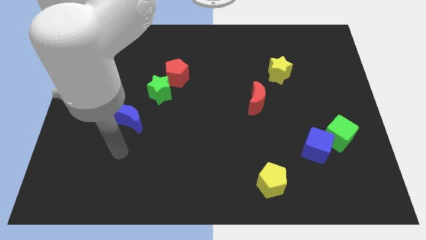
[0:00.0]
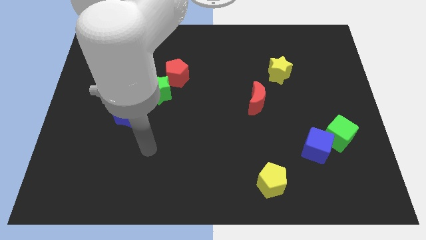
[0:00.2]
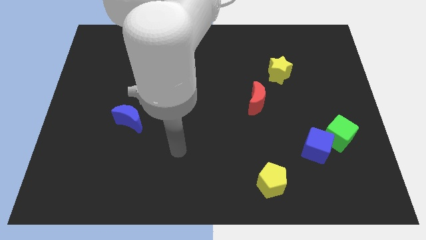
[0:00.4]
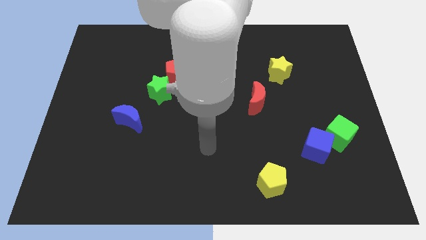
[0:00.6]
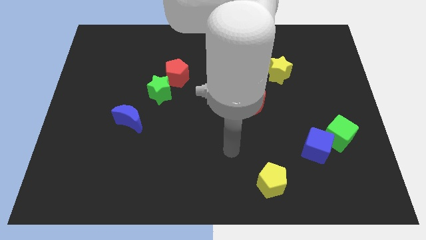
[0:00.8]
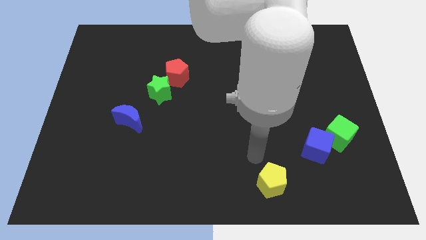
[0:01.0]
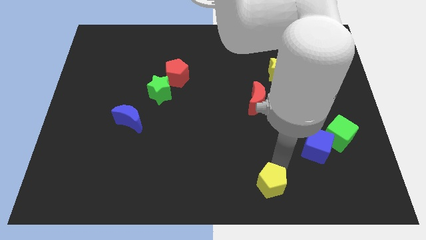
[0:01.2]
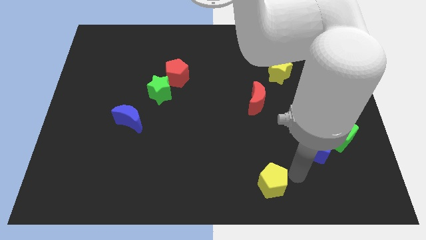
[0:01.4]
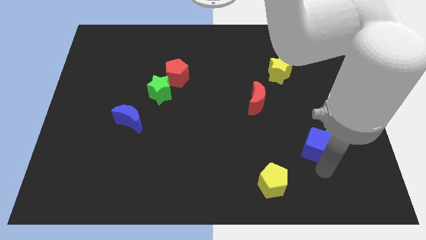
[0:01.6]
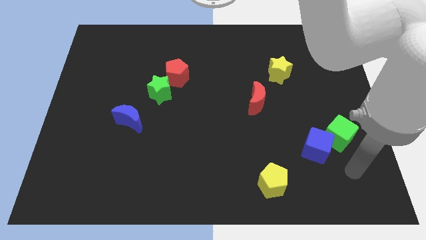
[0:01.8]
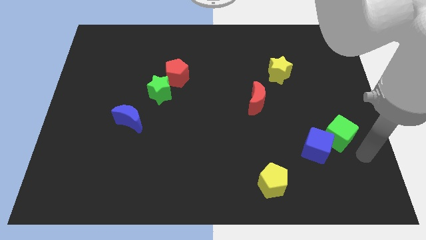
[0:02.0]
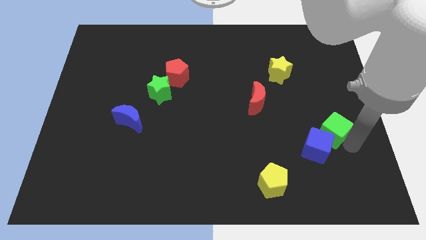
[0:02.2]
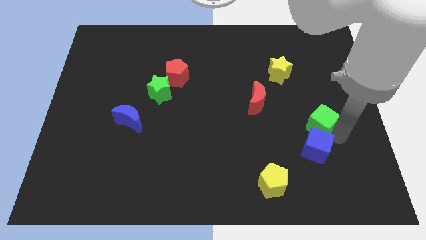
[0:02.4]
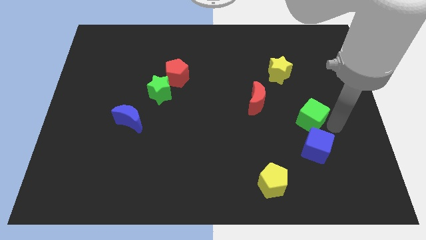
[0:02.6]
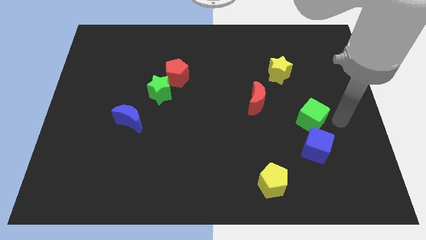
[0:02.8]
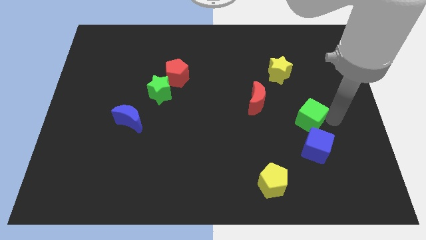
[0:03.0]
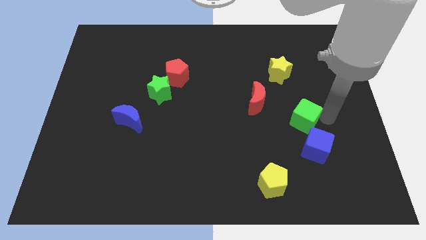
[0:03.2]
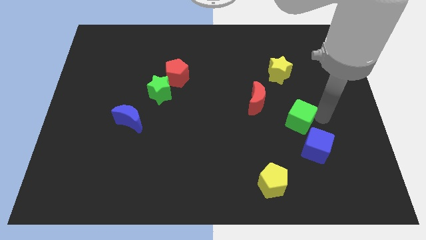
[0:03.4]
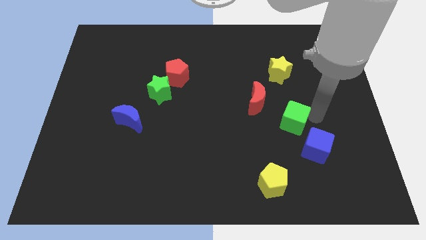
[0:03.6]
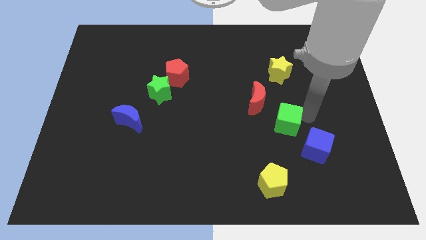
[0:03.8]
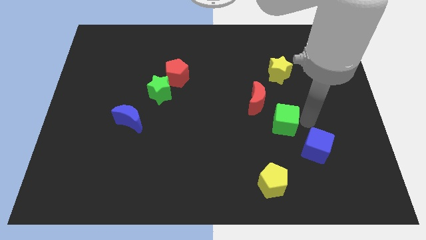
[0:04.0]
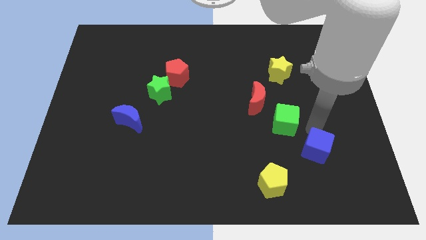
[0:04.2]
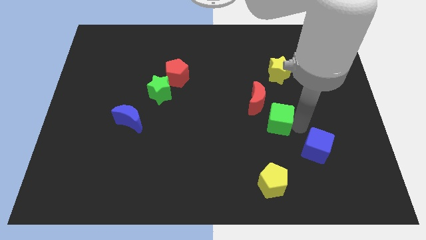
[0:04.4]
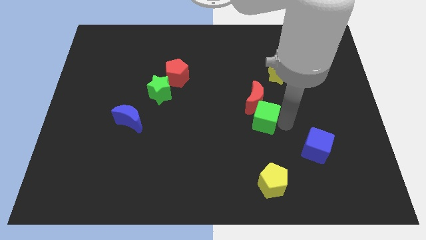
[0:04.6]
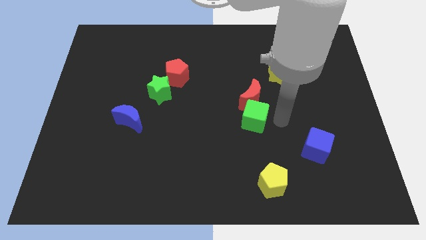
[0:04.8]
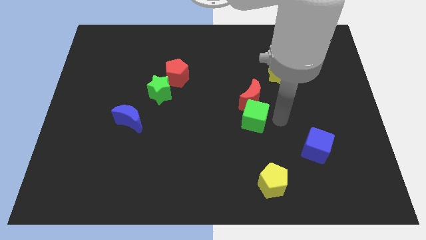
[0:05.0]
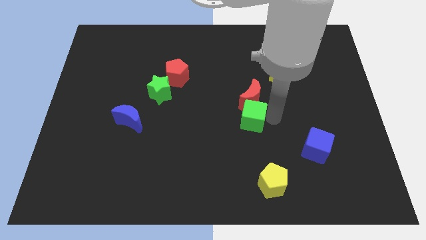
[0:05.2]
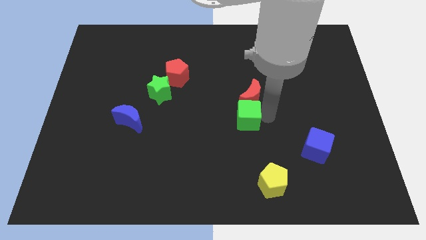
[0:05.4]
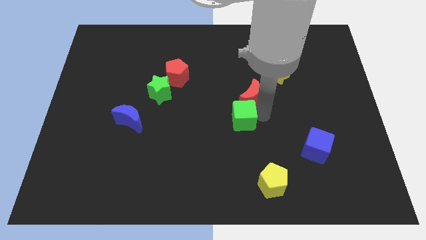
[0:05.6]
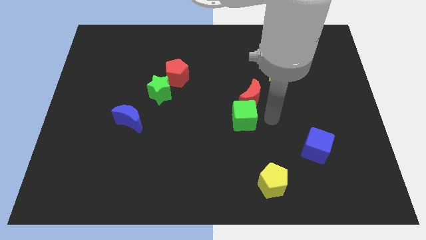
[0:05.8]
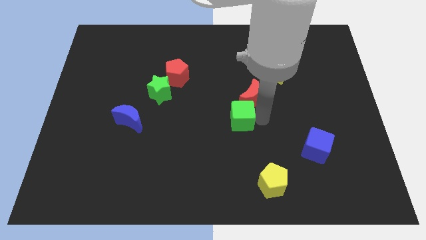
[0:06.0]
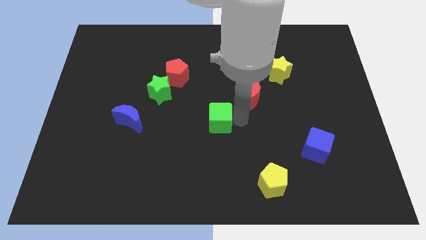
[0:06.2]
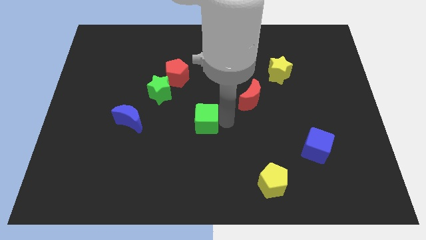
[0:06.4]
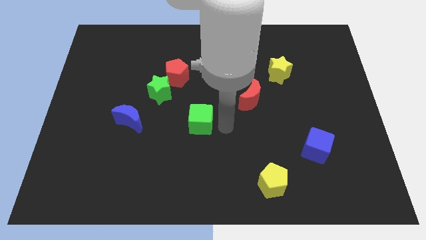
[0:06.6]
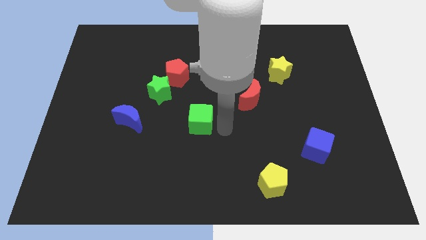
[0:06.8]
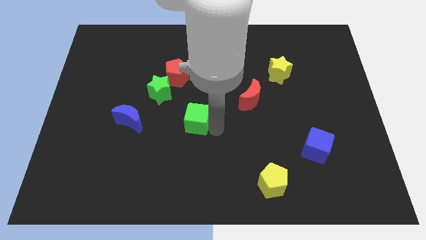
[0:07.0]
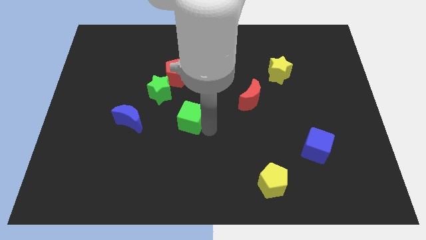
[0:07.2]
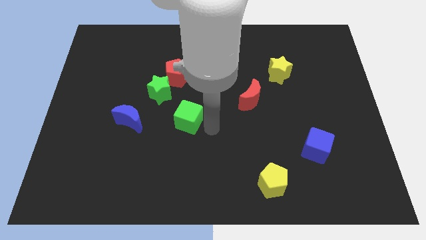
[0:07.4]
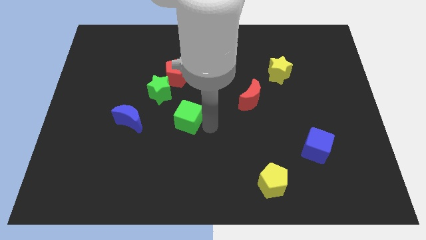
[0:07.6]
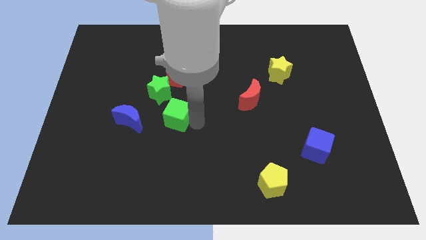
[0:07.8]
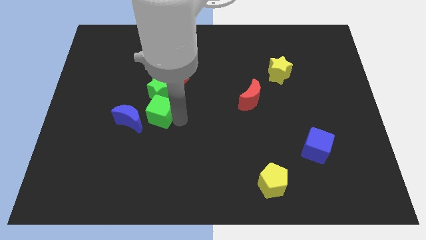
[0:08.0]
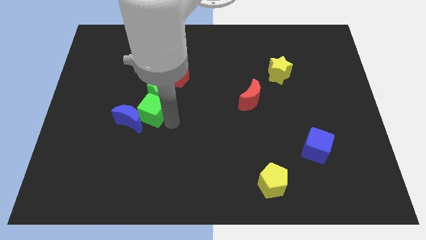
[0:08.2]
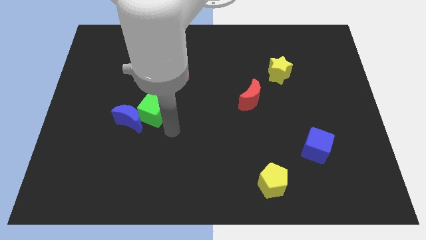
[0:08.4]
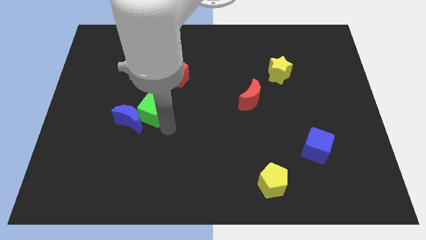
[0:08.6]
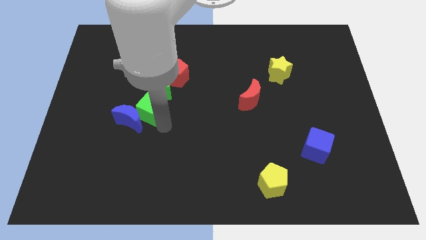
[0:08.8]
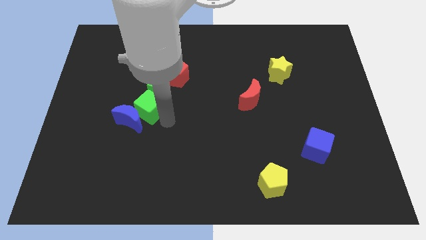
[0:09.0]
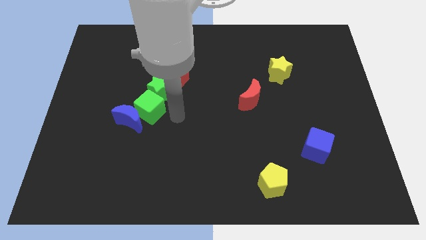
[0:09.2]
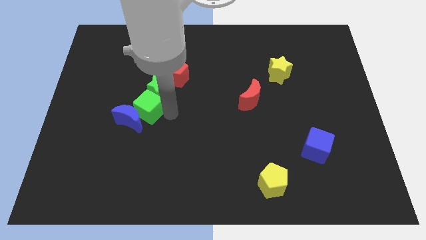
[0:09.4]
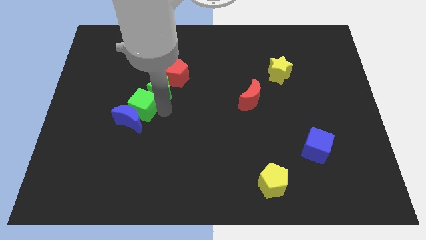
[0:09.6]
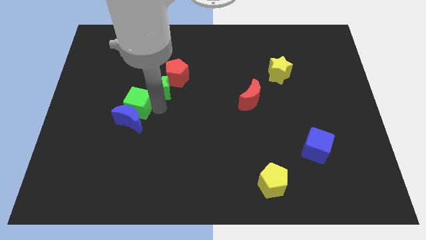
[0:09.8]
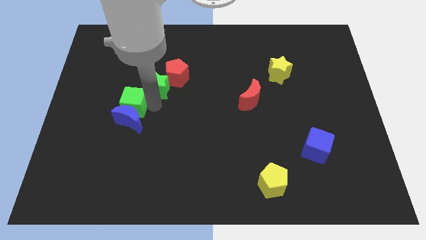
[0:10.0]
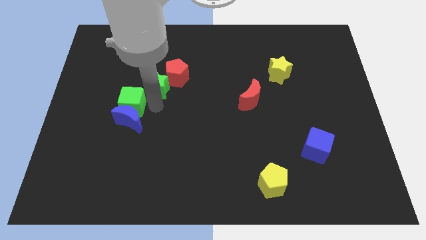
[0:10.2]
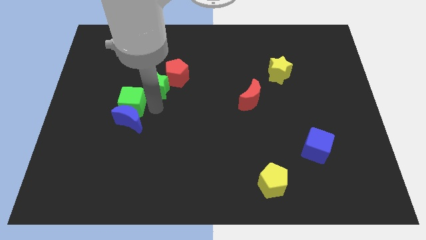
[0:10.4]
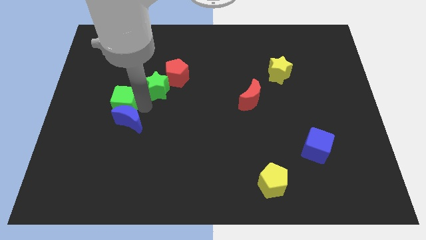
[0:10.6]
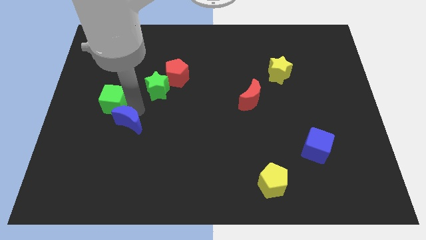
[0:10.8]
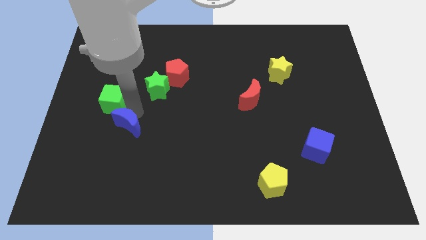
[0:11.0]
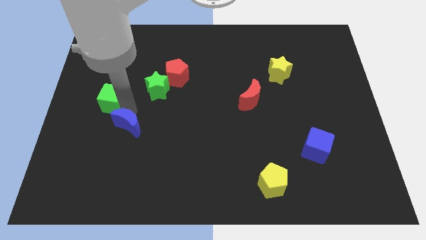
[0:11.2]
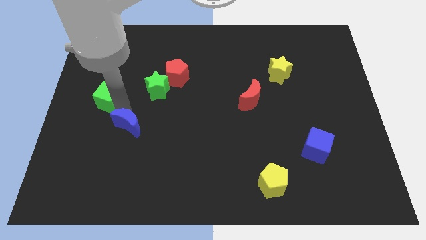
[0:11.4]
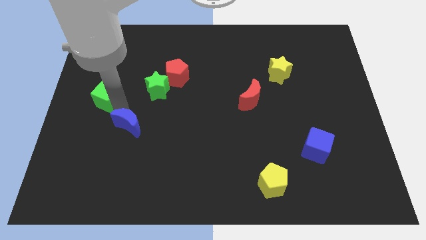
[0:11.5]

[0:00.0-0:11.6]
put the green cube to the left side

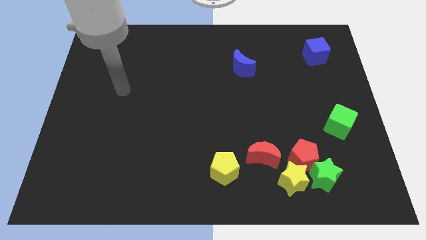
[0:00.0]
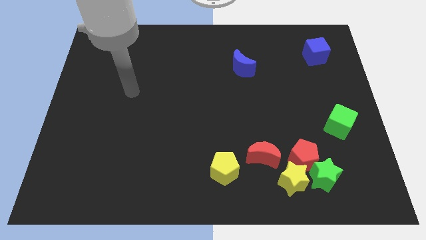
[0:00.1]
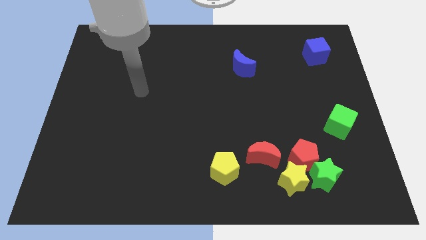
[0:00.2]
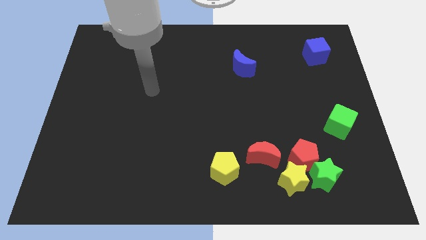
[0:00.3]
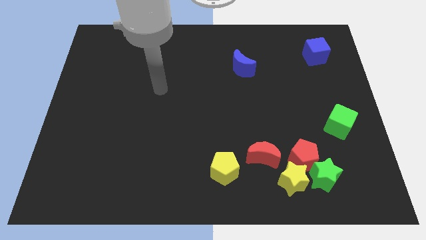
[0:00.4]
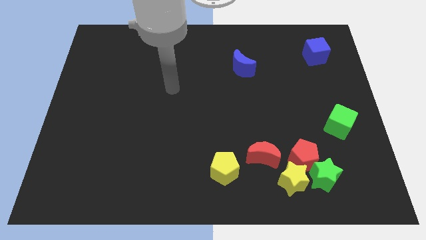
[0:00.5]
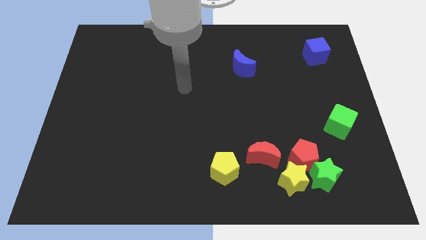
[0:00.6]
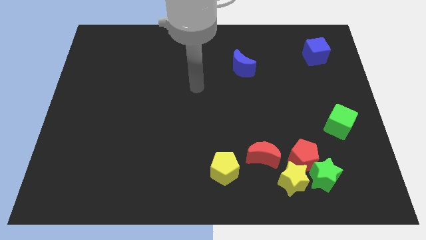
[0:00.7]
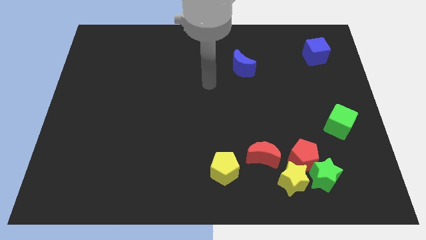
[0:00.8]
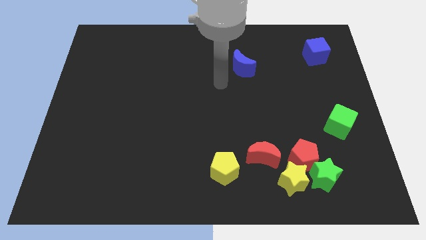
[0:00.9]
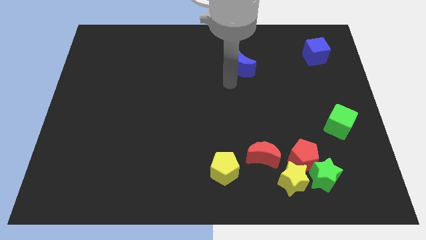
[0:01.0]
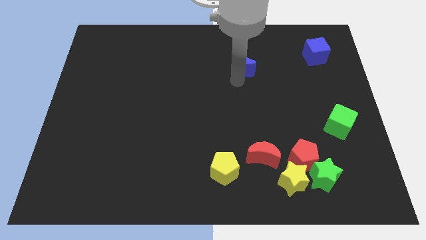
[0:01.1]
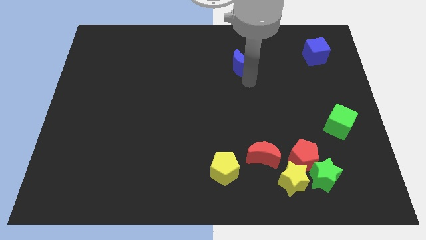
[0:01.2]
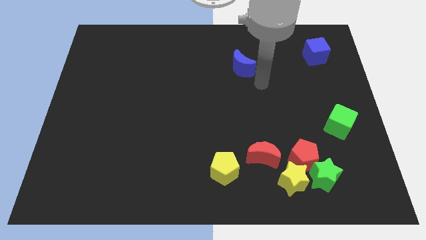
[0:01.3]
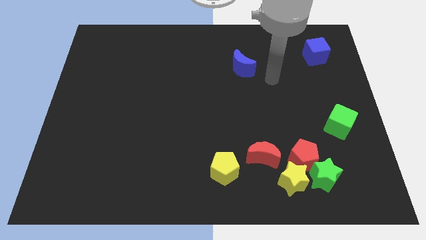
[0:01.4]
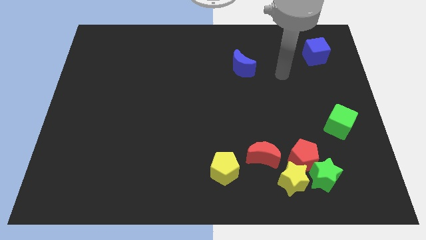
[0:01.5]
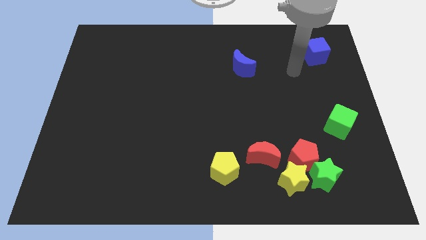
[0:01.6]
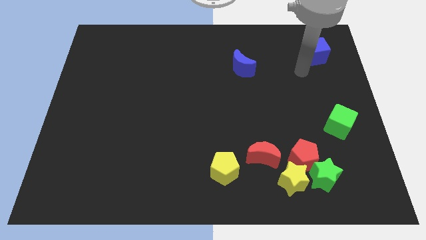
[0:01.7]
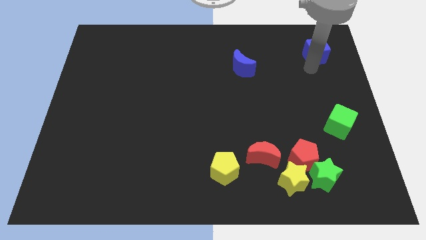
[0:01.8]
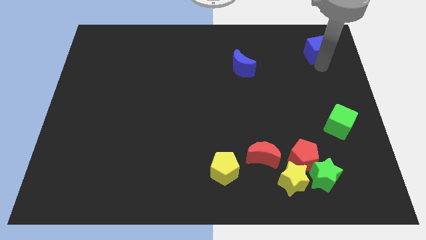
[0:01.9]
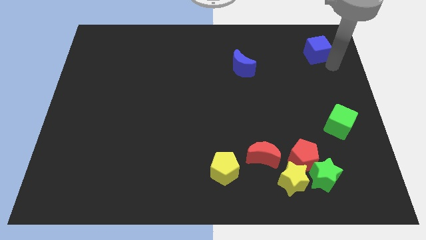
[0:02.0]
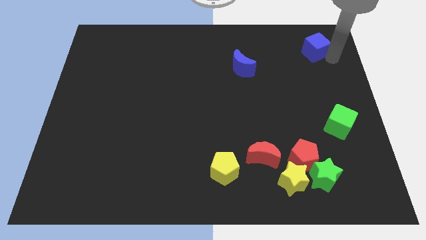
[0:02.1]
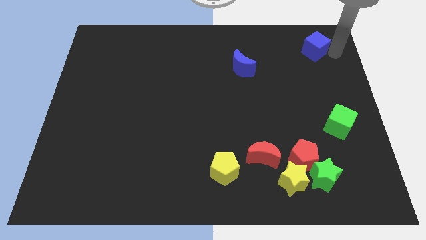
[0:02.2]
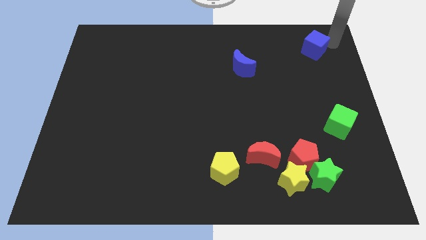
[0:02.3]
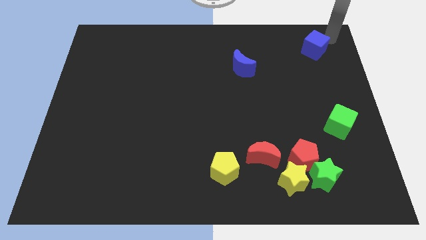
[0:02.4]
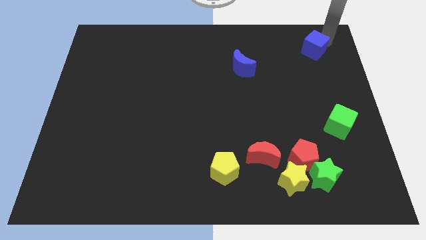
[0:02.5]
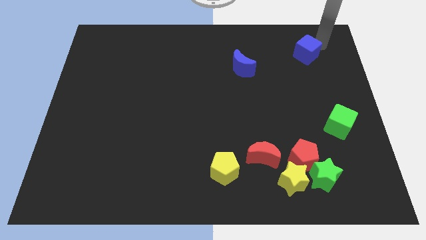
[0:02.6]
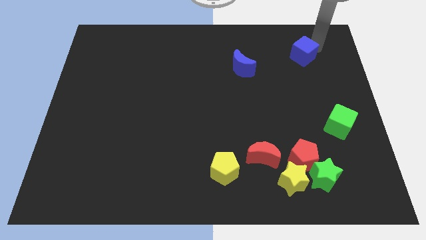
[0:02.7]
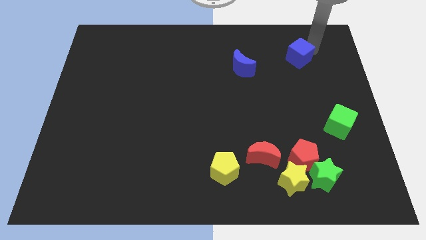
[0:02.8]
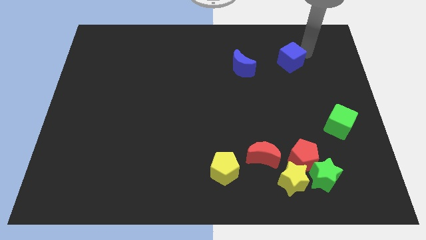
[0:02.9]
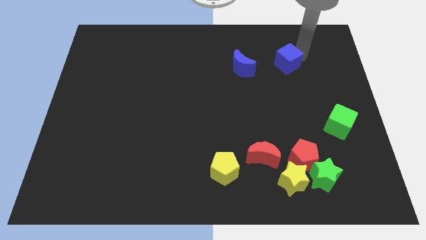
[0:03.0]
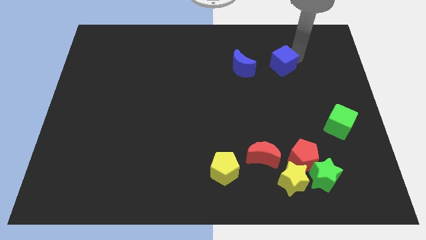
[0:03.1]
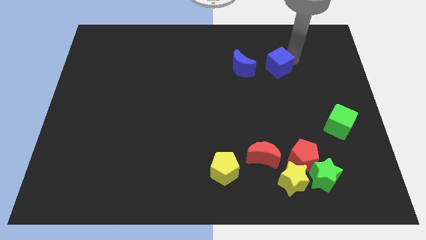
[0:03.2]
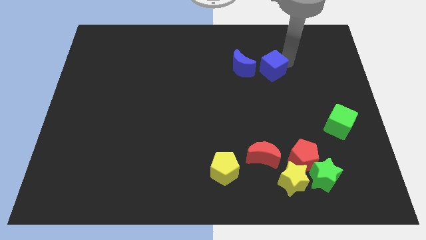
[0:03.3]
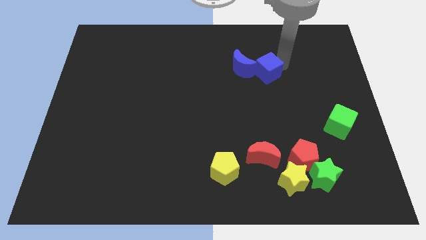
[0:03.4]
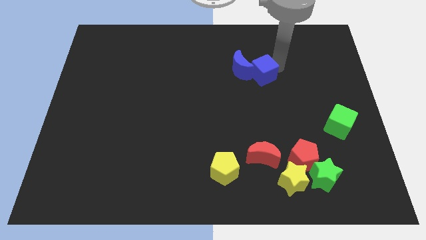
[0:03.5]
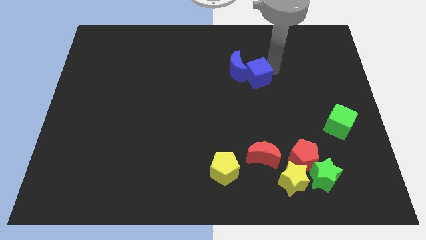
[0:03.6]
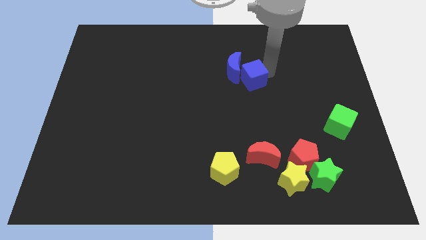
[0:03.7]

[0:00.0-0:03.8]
push the blue cube to the middle of the board
